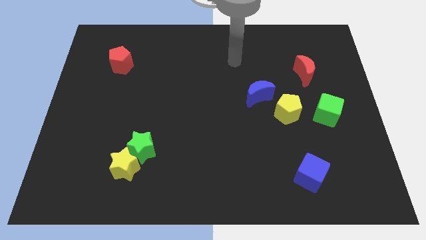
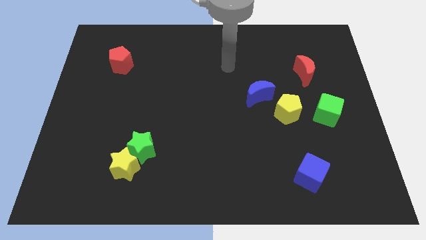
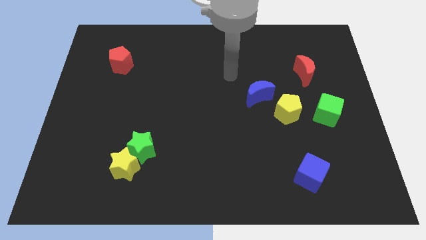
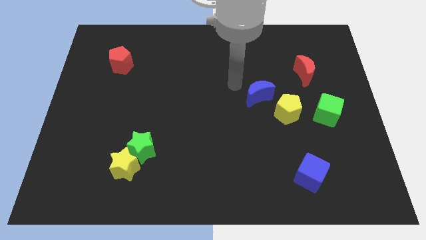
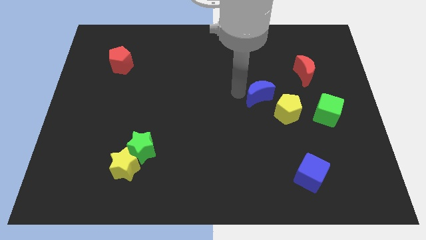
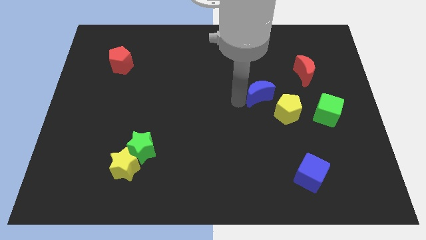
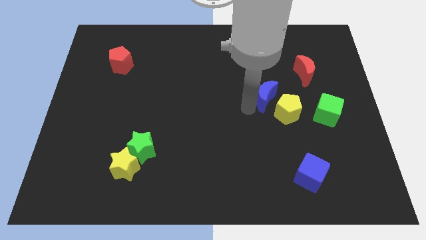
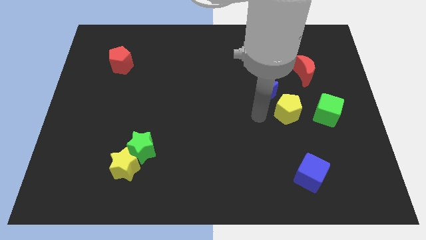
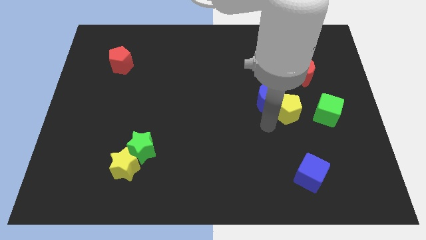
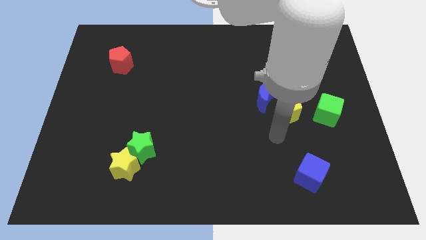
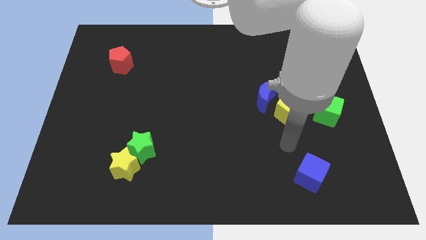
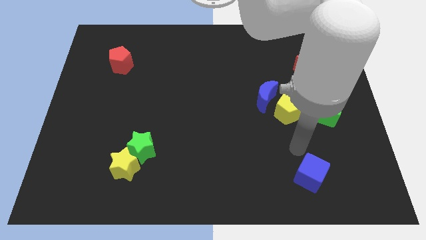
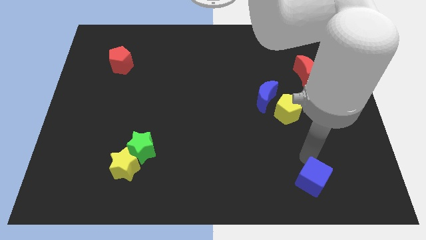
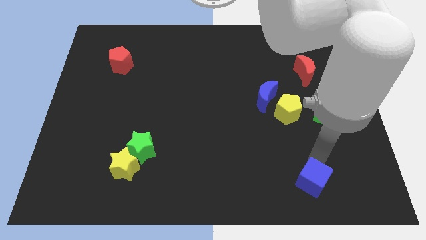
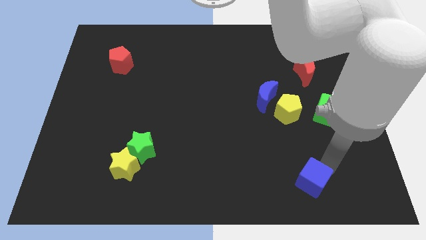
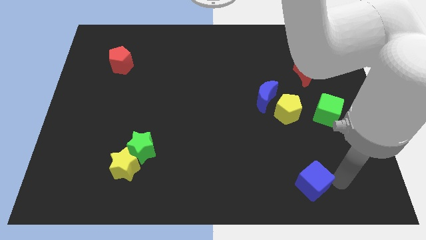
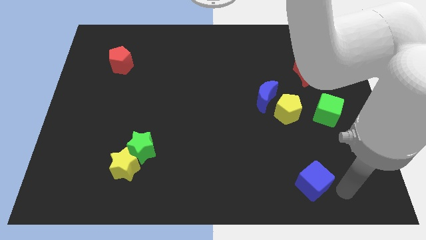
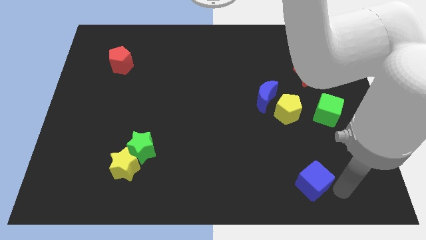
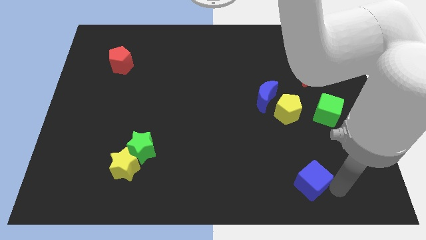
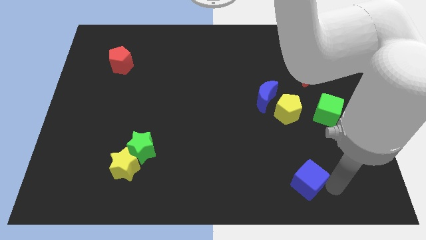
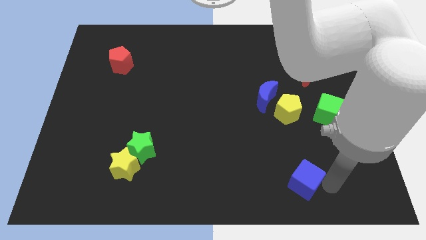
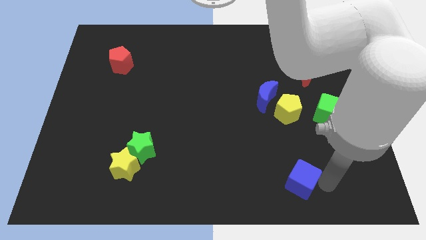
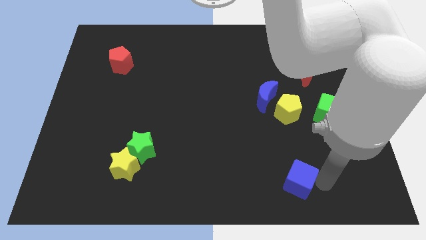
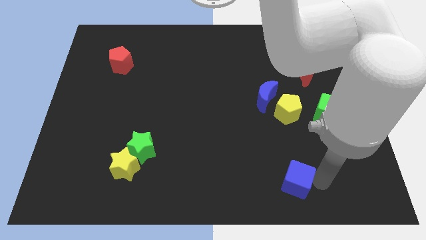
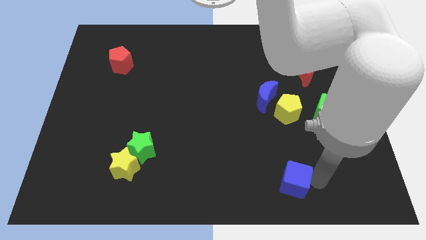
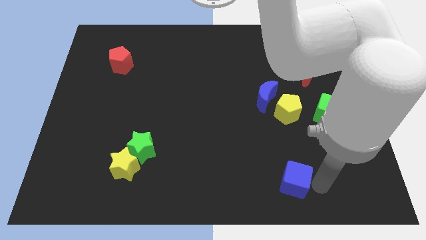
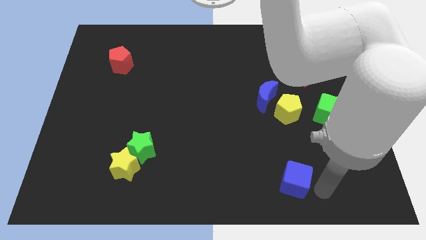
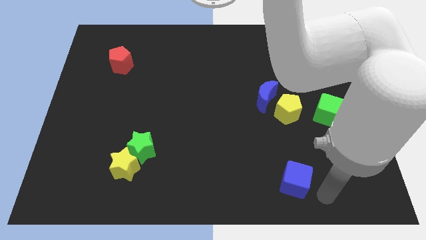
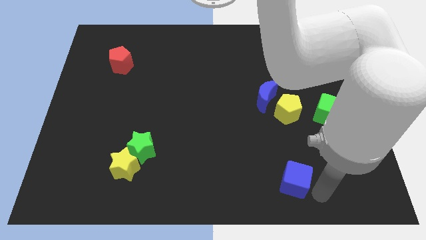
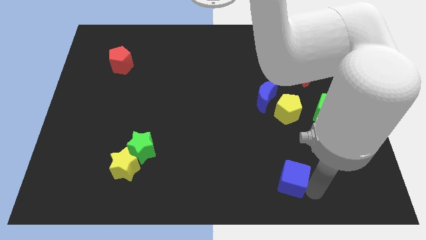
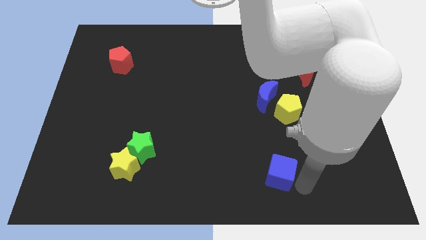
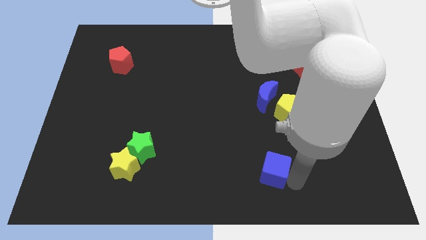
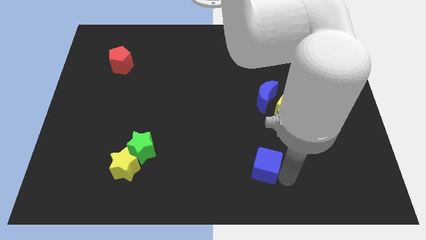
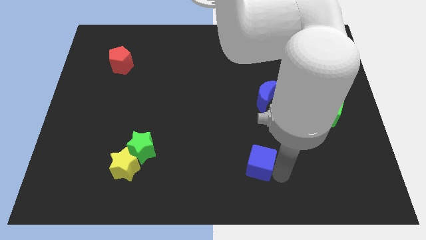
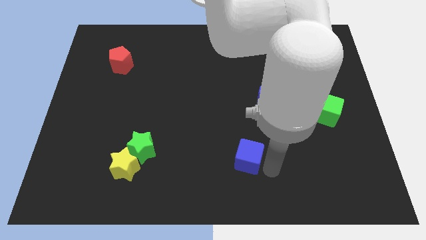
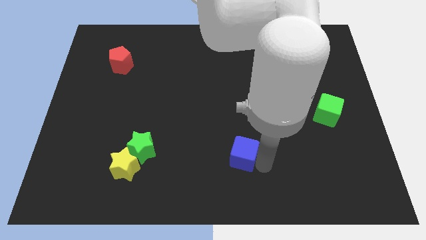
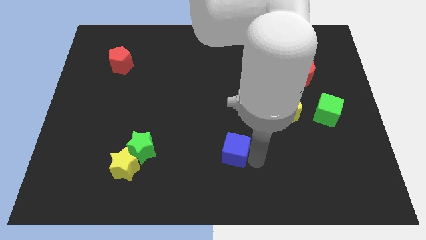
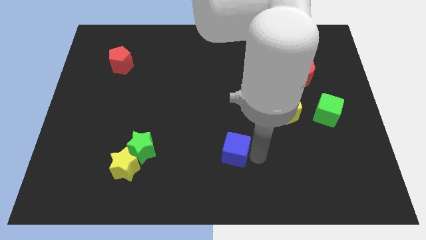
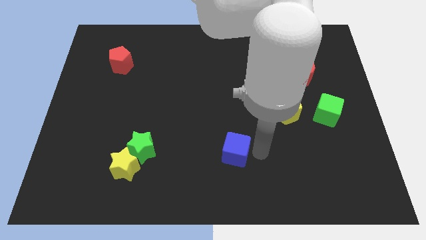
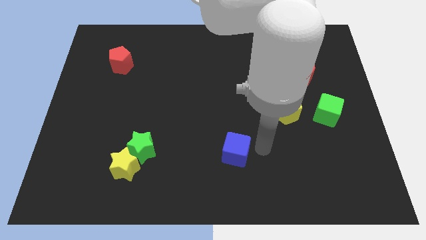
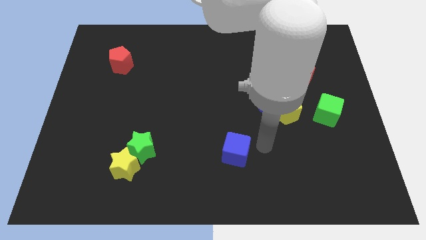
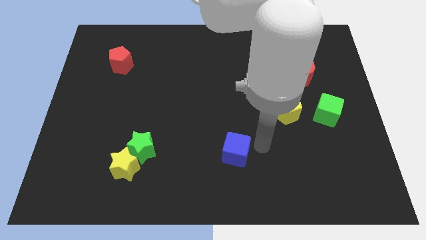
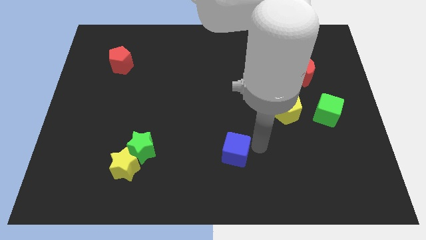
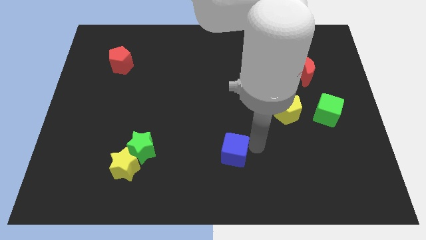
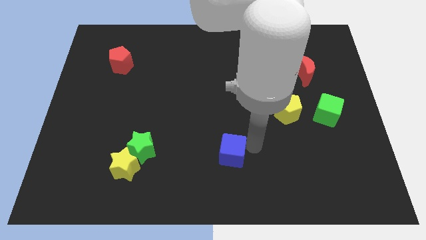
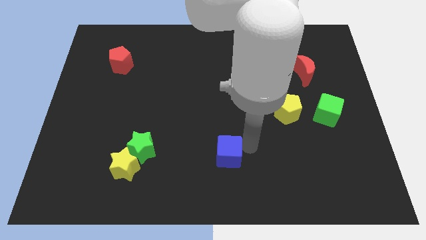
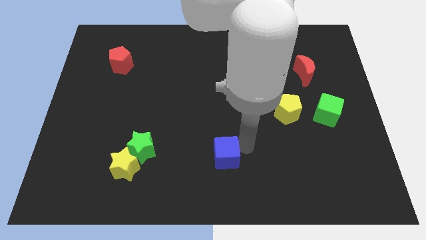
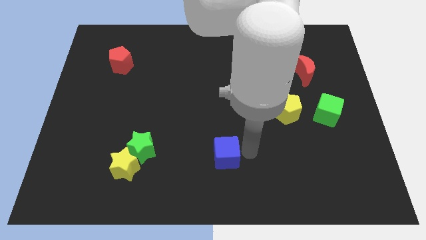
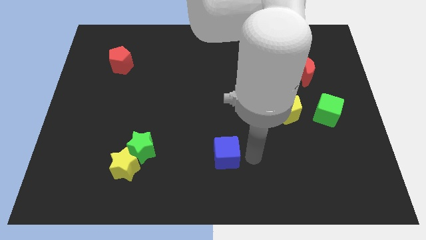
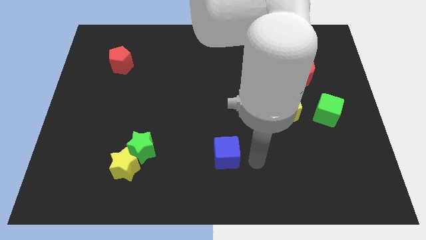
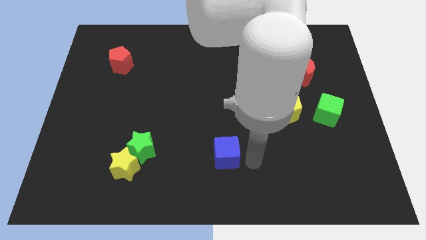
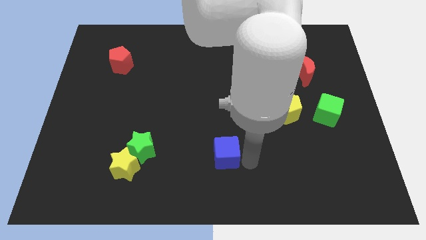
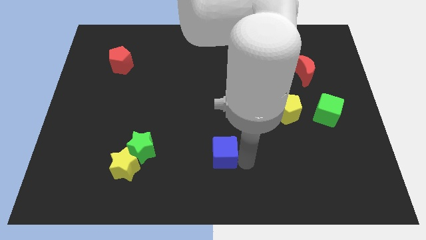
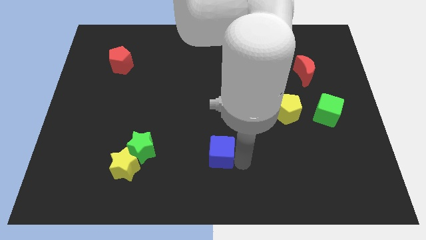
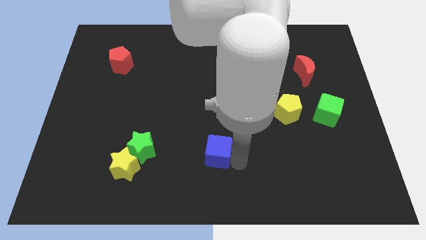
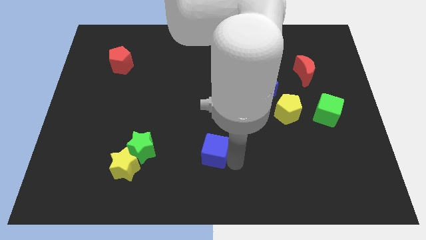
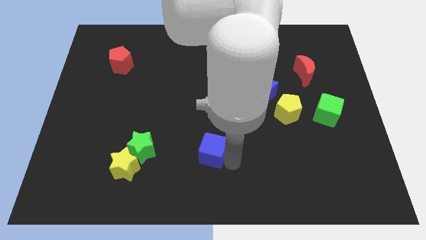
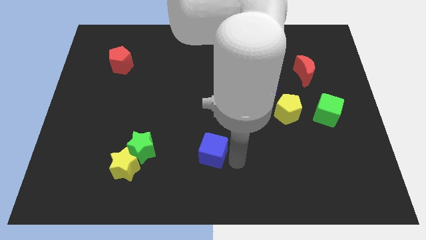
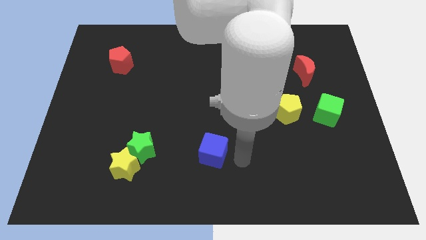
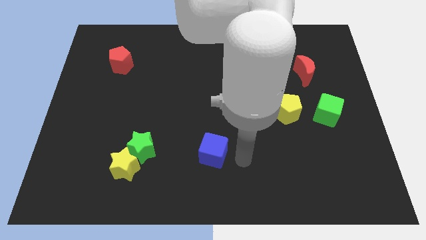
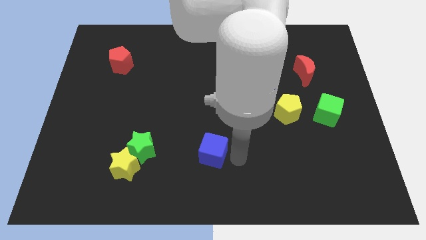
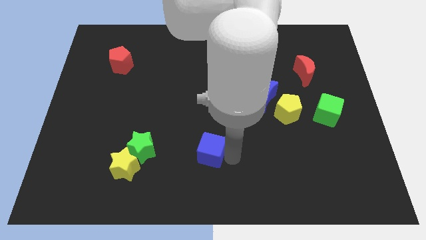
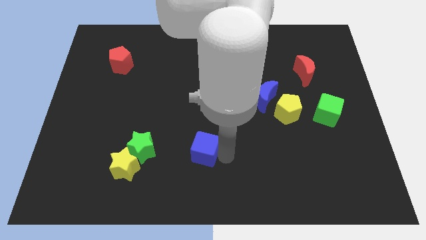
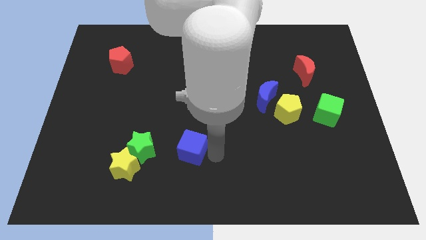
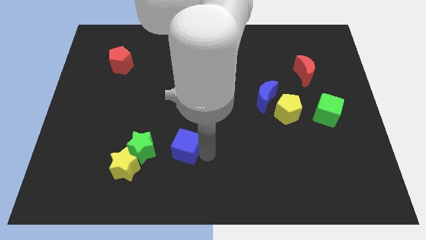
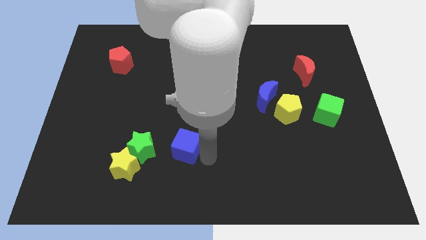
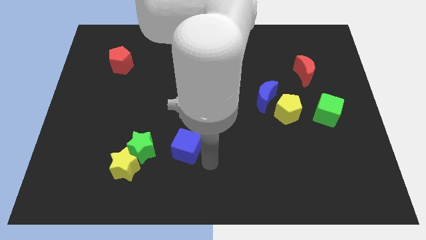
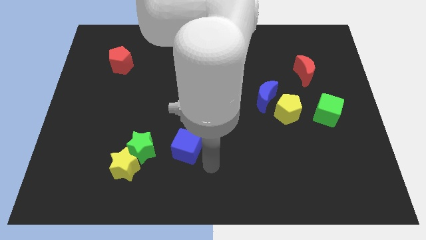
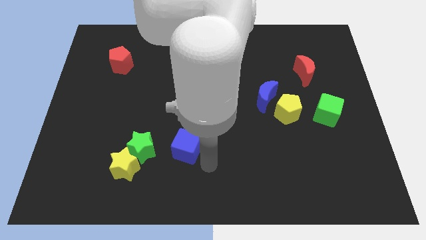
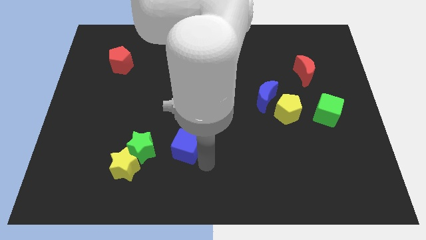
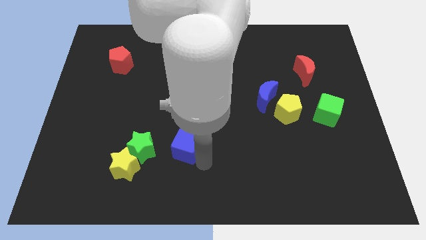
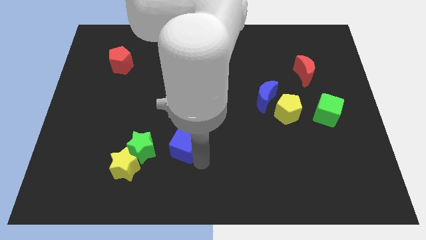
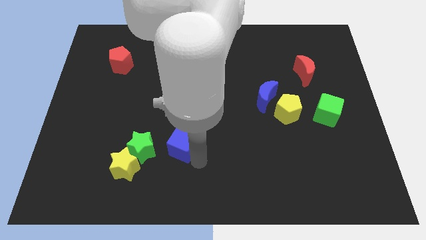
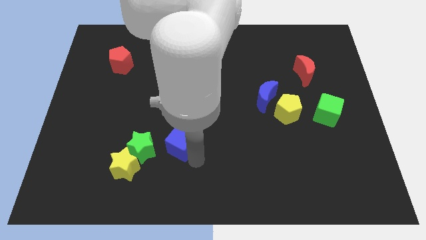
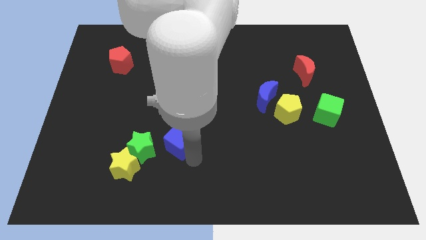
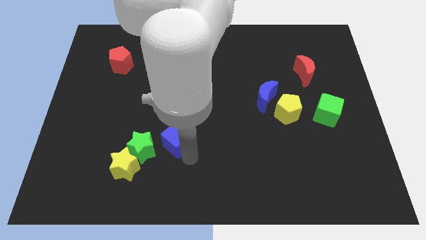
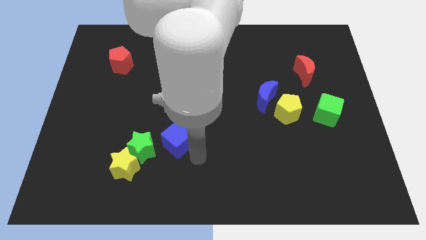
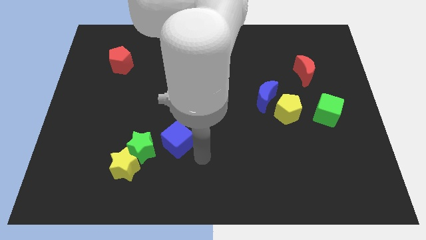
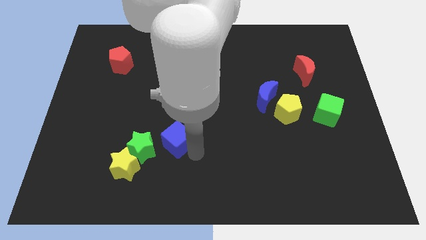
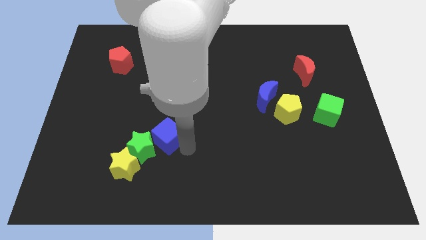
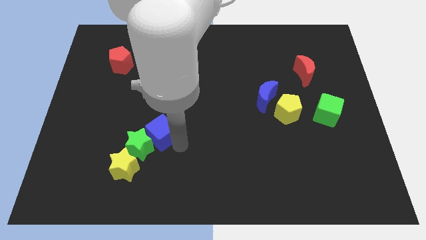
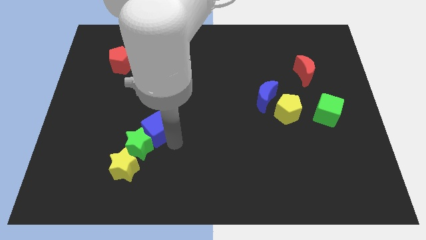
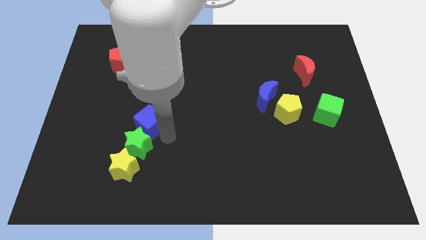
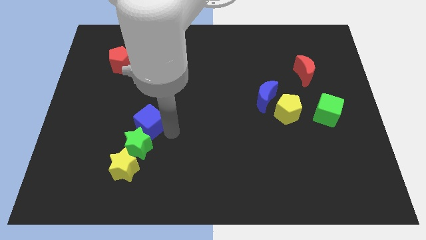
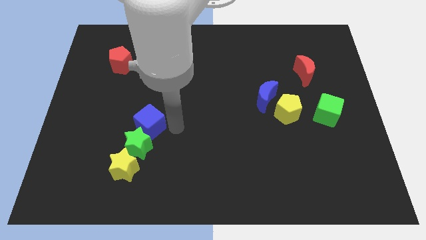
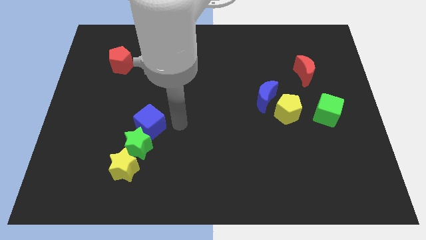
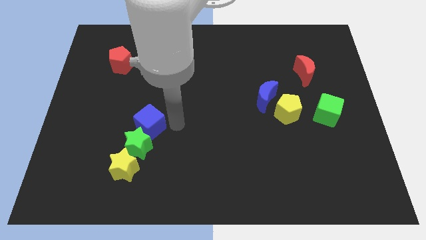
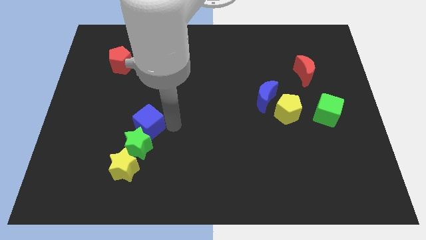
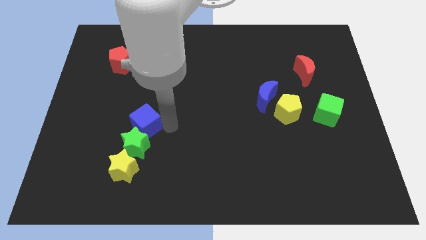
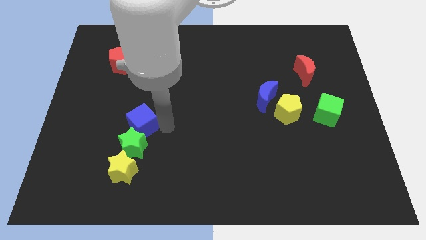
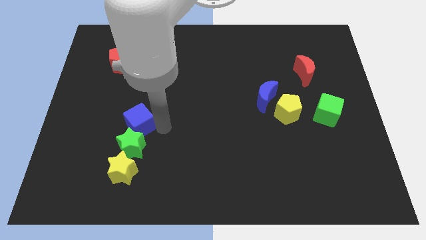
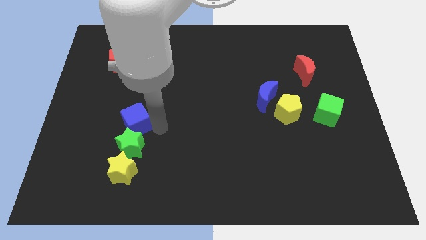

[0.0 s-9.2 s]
slide the blue cube to the top left of the green star
